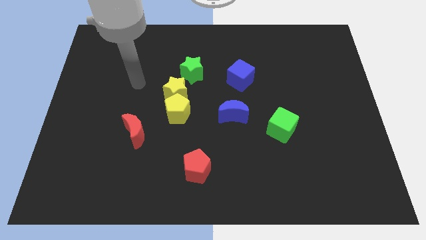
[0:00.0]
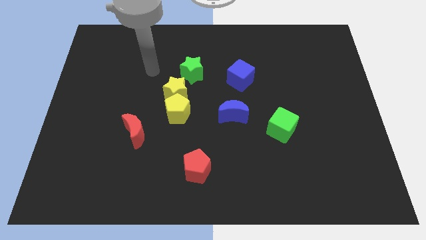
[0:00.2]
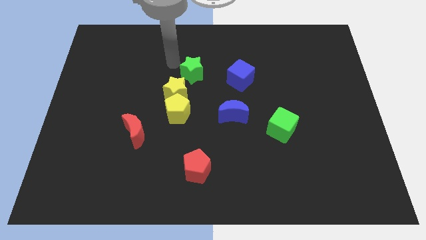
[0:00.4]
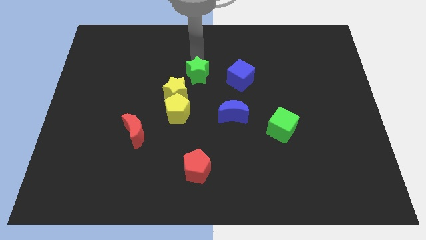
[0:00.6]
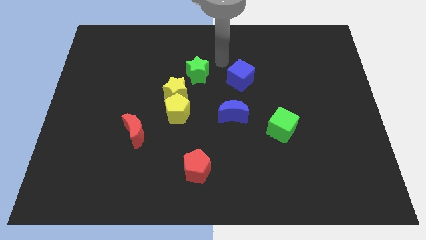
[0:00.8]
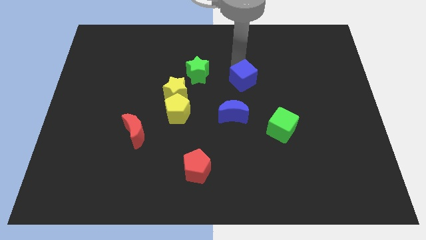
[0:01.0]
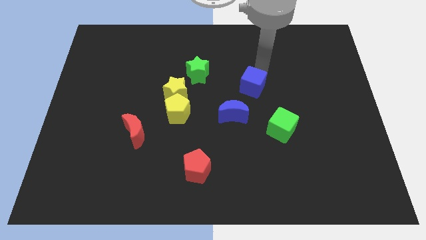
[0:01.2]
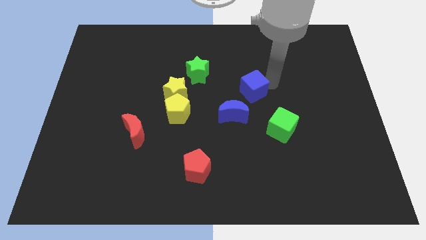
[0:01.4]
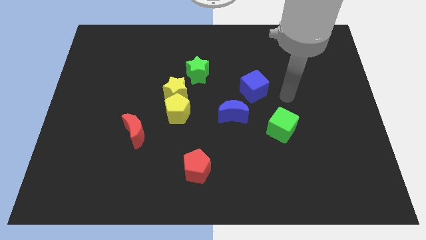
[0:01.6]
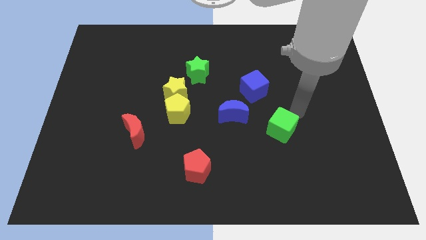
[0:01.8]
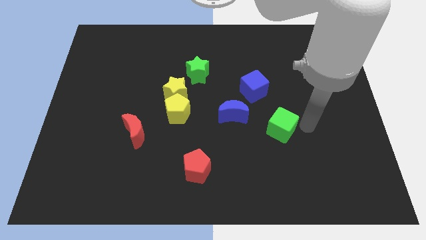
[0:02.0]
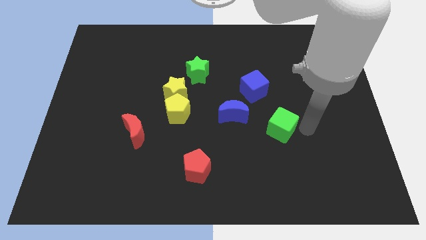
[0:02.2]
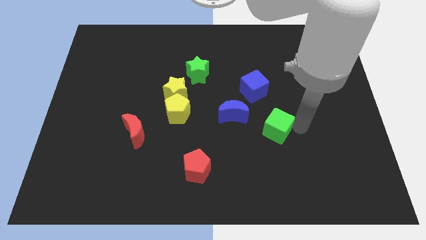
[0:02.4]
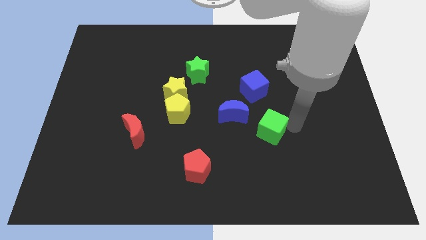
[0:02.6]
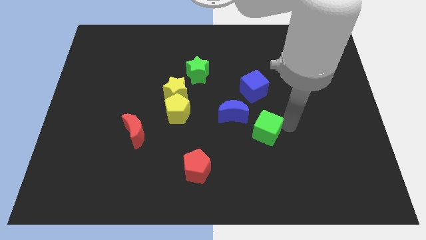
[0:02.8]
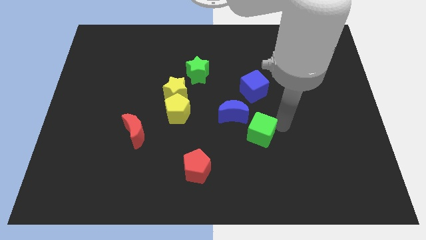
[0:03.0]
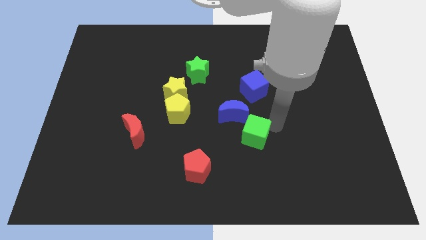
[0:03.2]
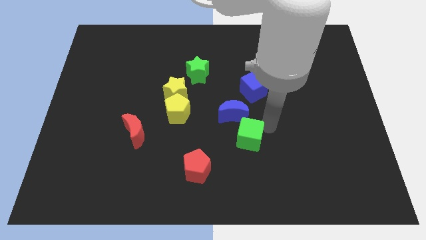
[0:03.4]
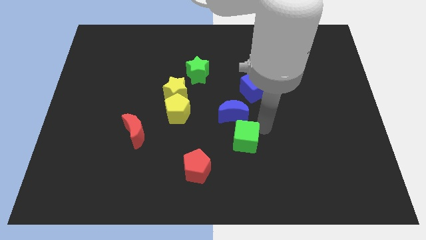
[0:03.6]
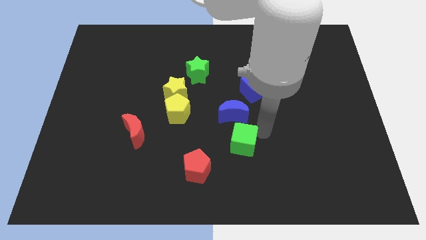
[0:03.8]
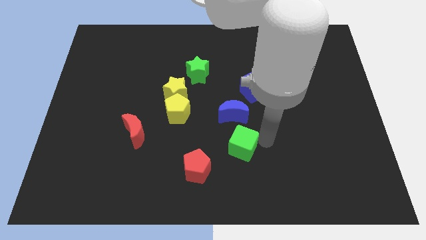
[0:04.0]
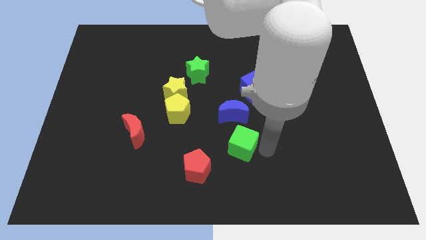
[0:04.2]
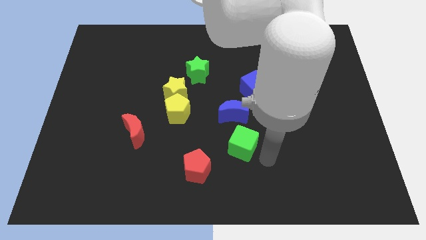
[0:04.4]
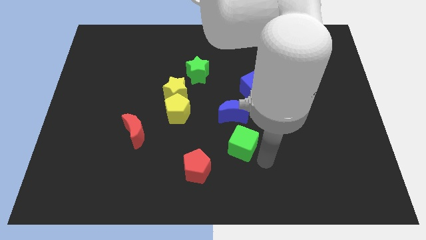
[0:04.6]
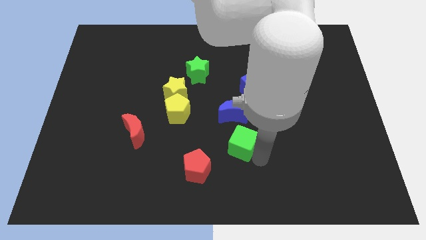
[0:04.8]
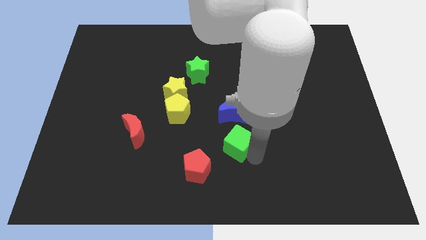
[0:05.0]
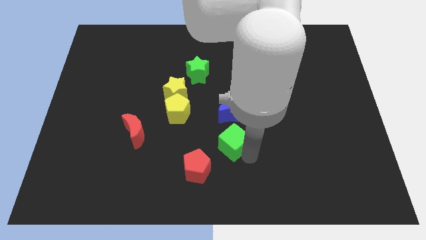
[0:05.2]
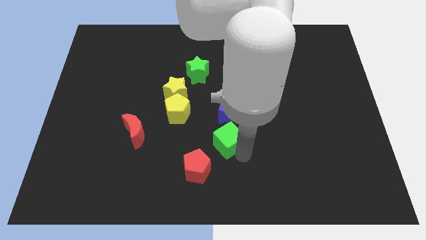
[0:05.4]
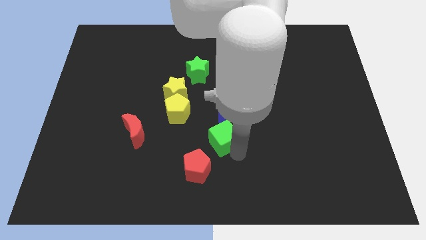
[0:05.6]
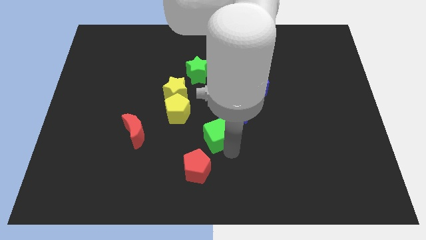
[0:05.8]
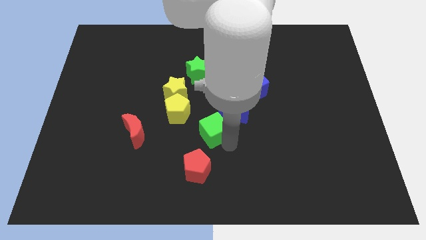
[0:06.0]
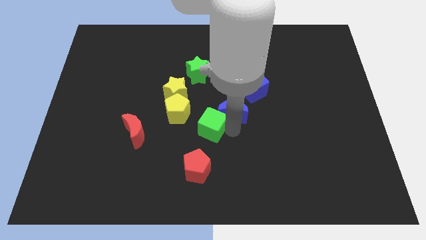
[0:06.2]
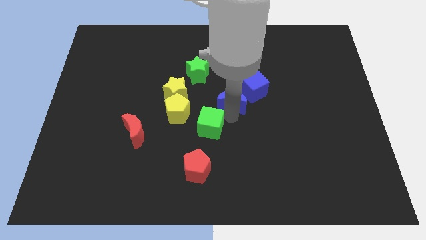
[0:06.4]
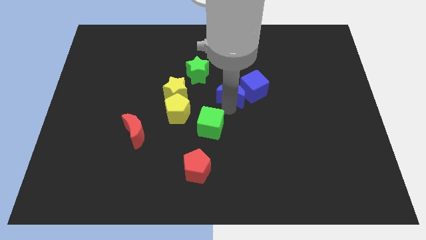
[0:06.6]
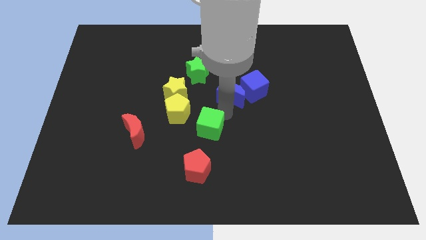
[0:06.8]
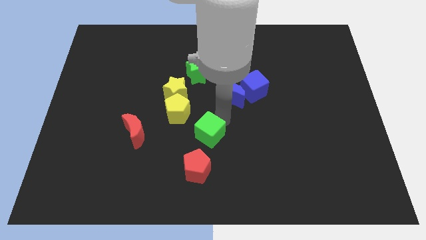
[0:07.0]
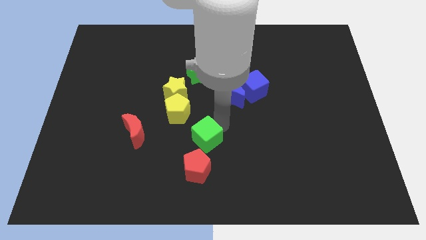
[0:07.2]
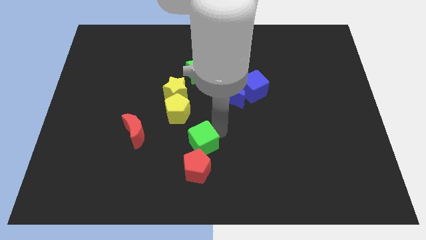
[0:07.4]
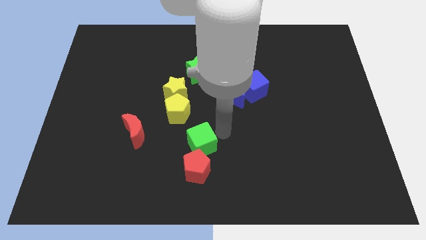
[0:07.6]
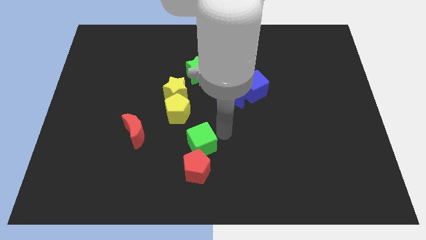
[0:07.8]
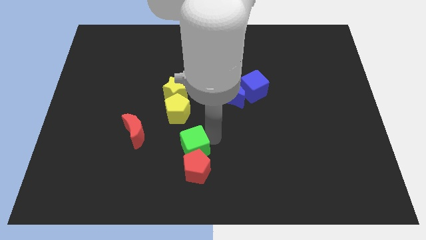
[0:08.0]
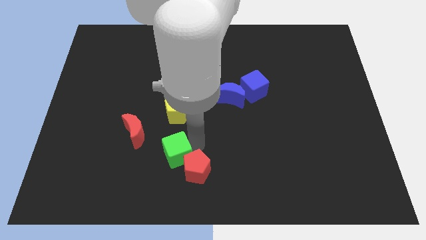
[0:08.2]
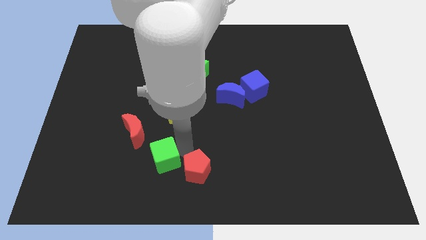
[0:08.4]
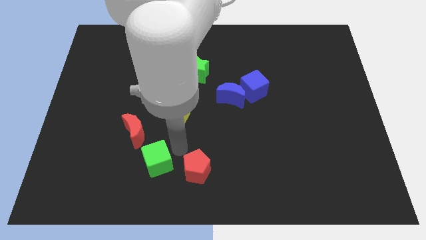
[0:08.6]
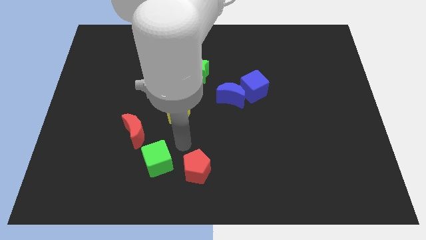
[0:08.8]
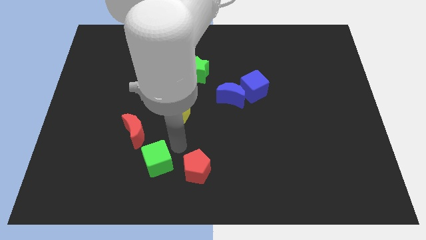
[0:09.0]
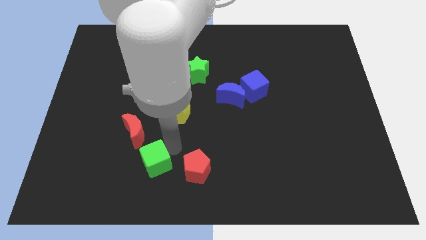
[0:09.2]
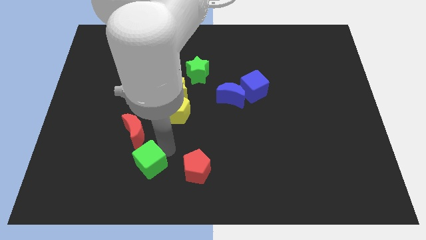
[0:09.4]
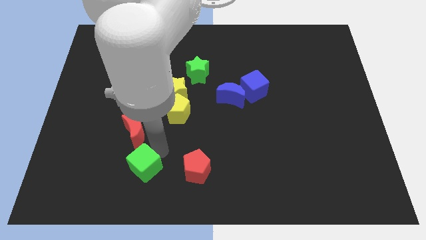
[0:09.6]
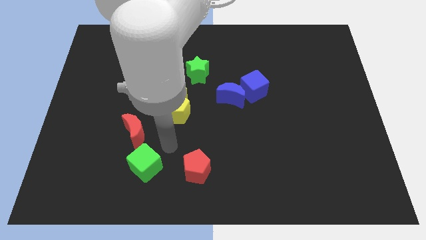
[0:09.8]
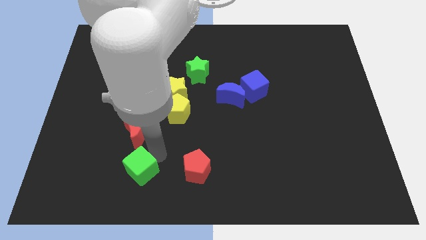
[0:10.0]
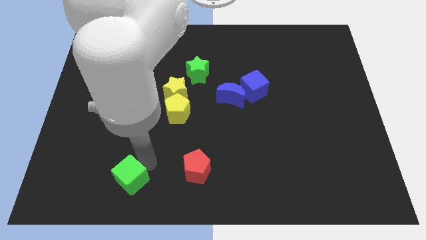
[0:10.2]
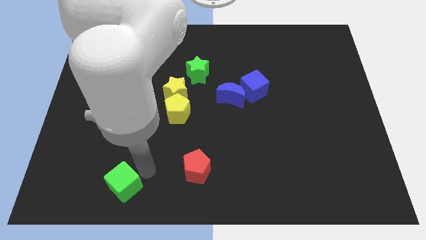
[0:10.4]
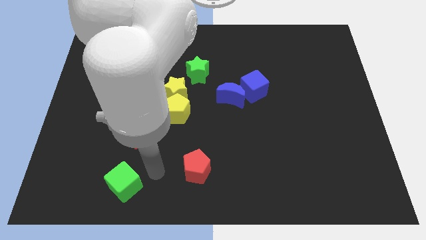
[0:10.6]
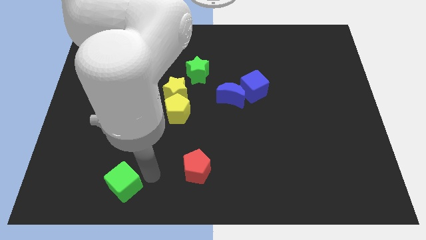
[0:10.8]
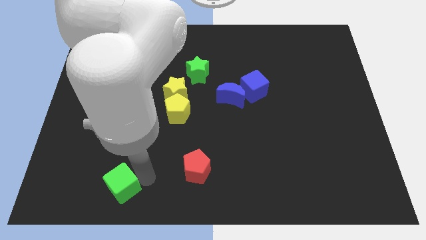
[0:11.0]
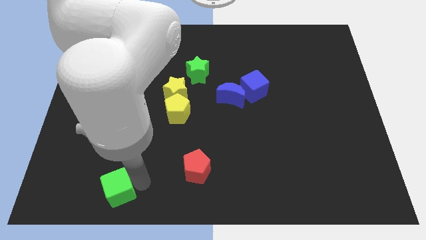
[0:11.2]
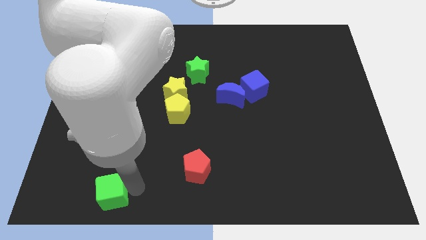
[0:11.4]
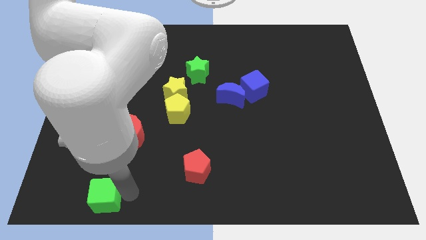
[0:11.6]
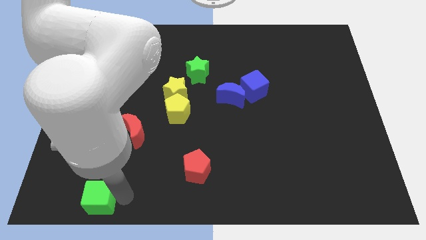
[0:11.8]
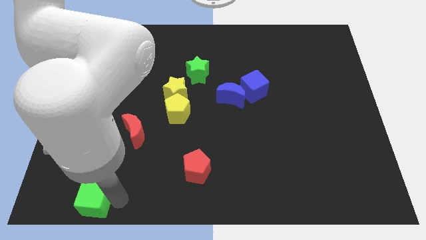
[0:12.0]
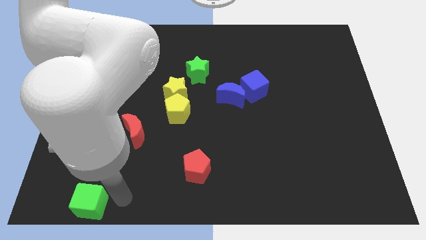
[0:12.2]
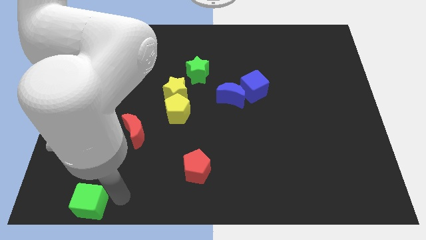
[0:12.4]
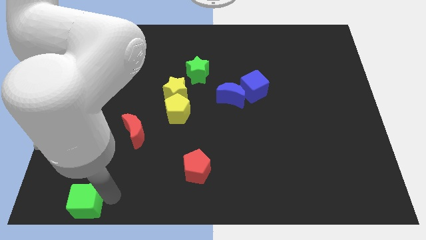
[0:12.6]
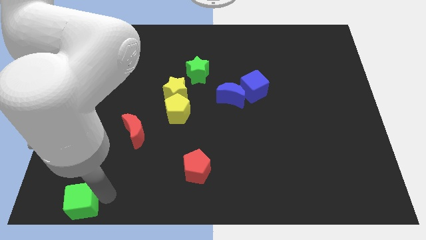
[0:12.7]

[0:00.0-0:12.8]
push the green cube to the lower left corner
